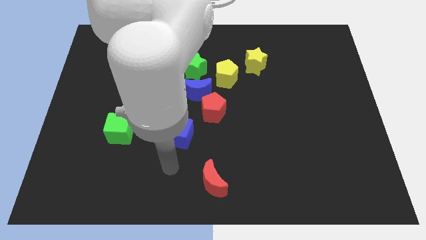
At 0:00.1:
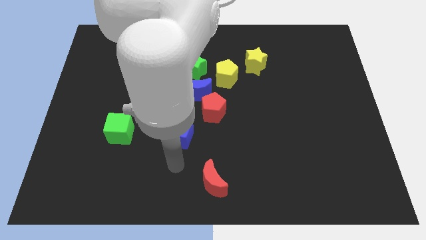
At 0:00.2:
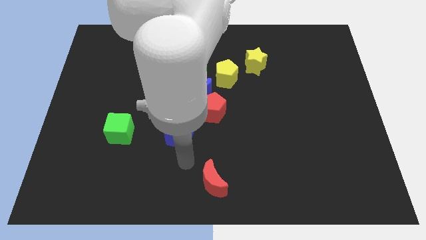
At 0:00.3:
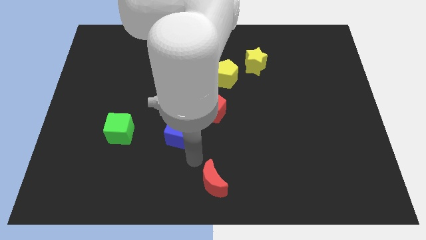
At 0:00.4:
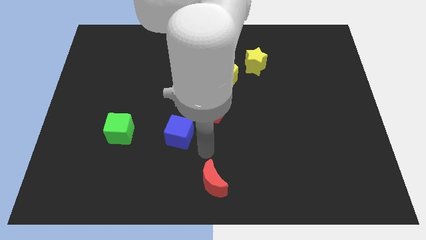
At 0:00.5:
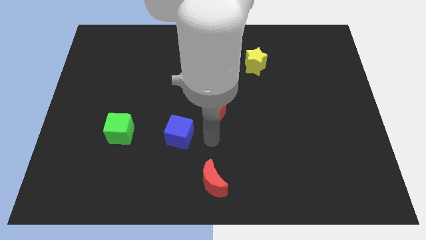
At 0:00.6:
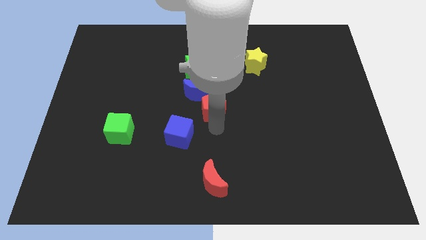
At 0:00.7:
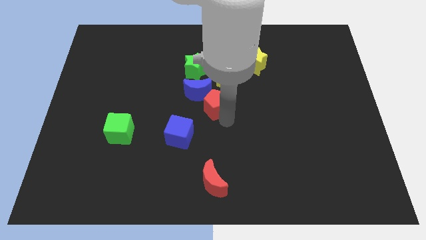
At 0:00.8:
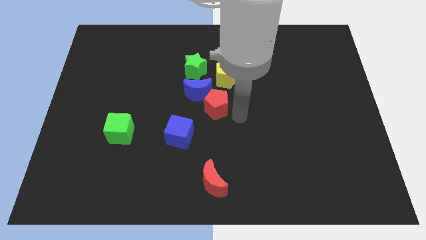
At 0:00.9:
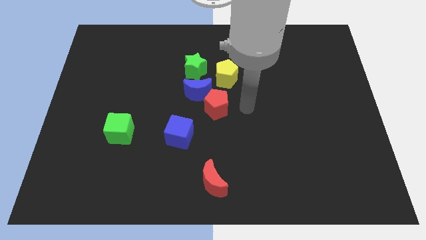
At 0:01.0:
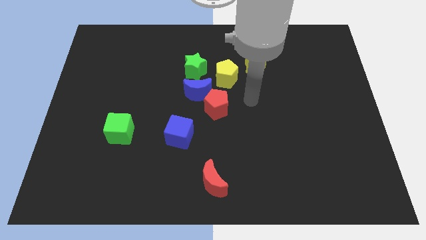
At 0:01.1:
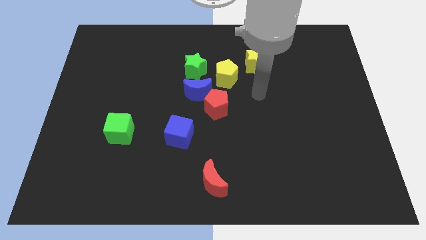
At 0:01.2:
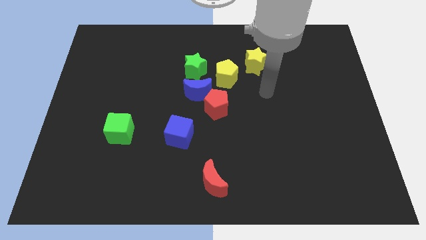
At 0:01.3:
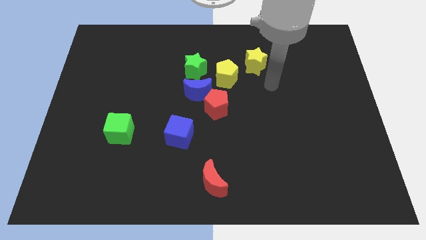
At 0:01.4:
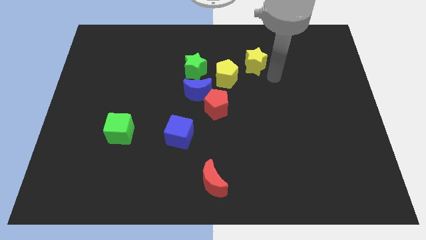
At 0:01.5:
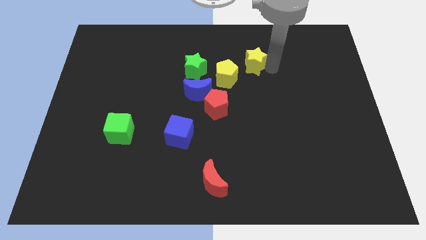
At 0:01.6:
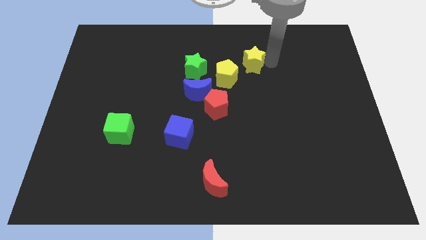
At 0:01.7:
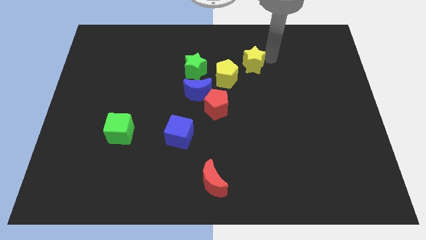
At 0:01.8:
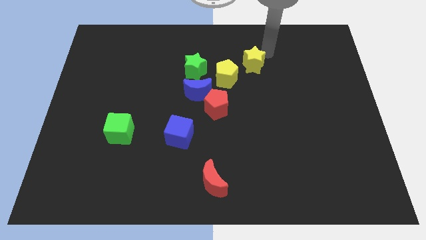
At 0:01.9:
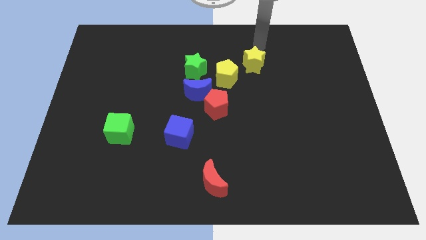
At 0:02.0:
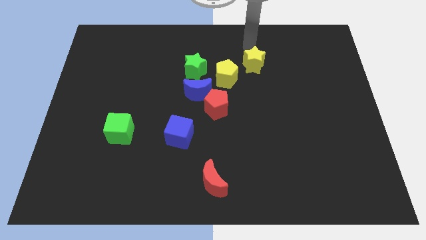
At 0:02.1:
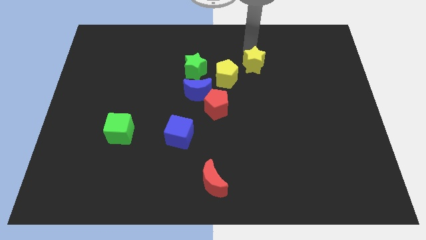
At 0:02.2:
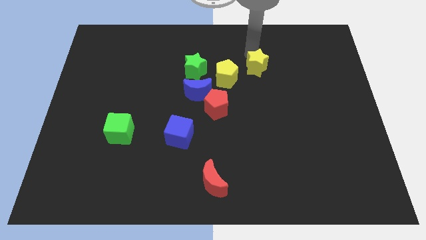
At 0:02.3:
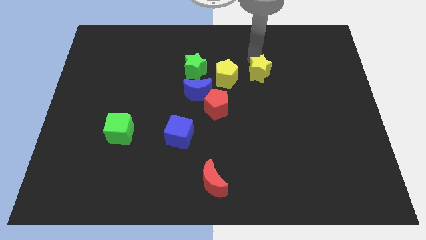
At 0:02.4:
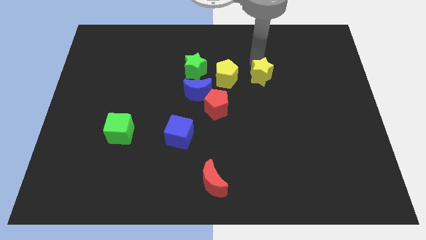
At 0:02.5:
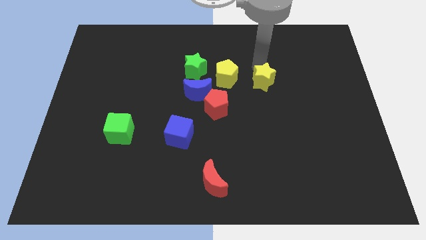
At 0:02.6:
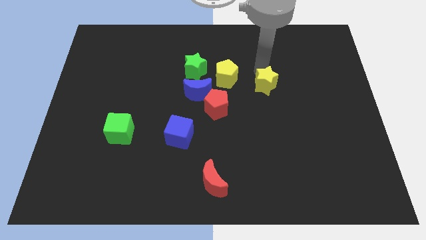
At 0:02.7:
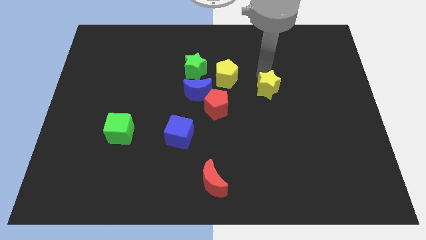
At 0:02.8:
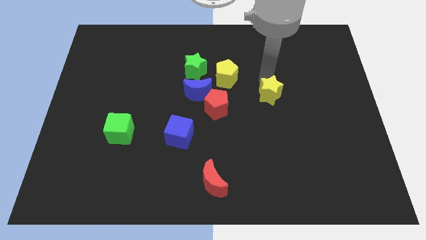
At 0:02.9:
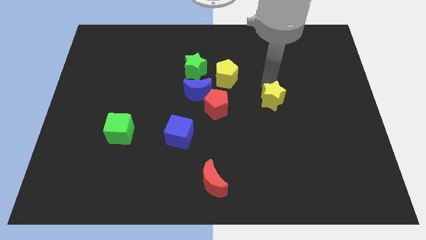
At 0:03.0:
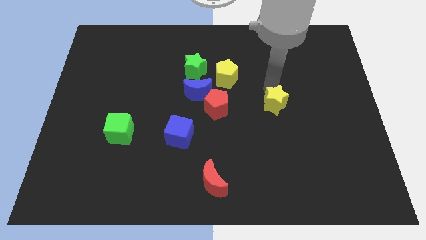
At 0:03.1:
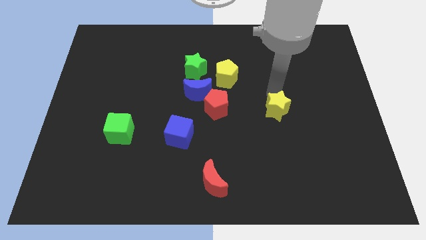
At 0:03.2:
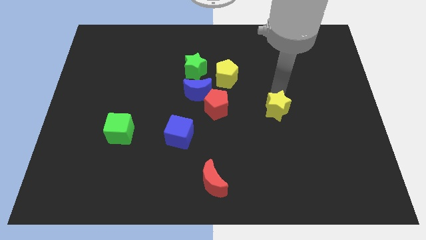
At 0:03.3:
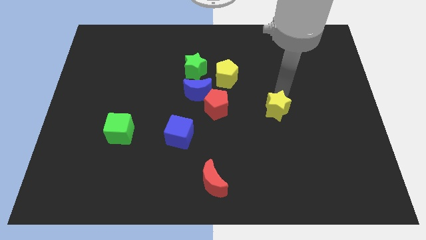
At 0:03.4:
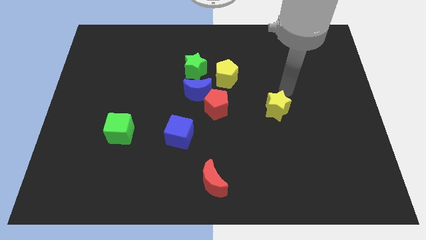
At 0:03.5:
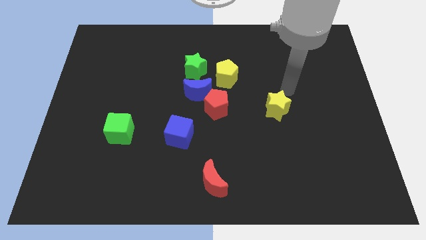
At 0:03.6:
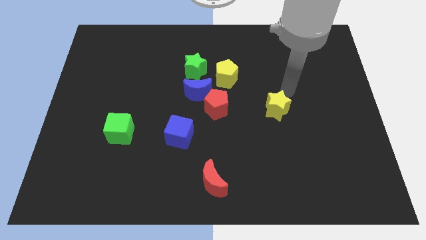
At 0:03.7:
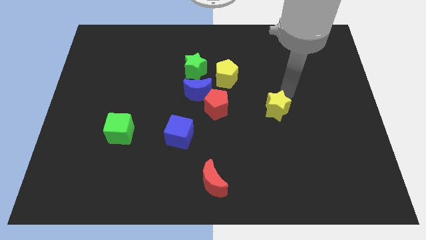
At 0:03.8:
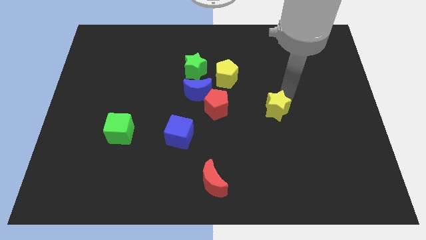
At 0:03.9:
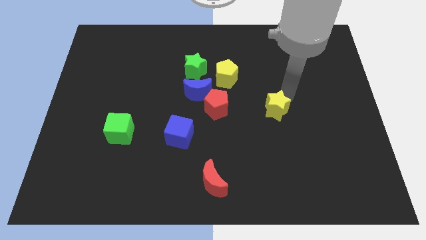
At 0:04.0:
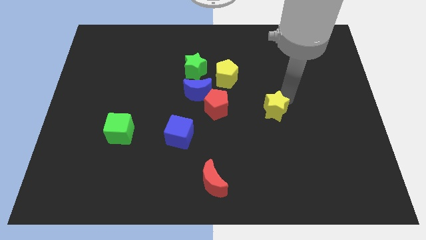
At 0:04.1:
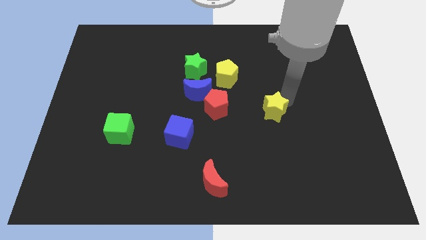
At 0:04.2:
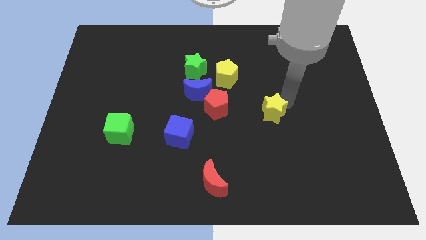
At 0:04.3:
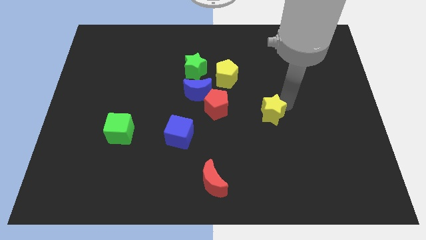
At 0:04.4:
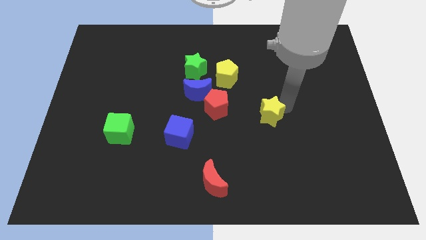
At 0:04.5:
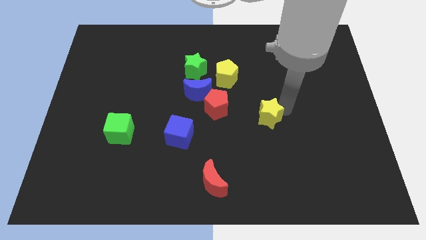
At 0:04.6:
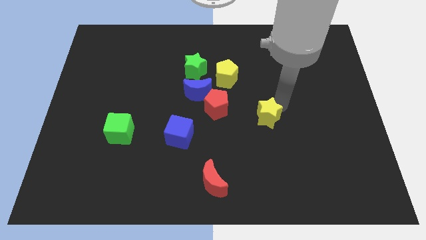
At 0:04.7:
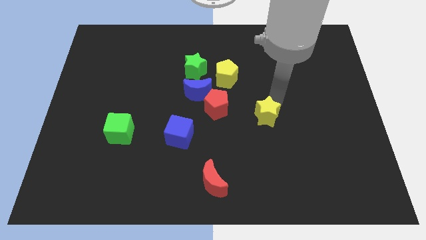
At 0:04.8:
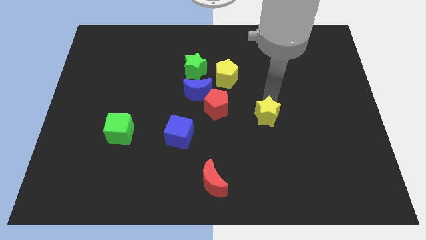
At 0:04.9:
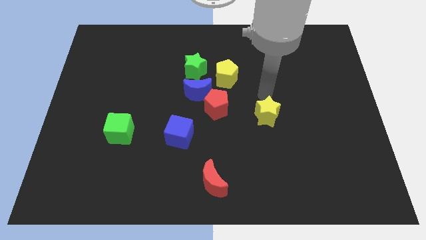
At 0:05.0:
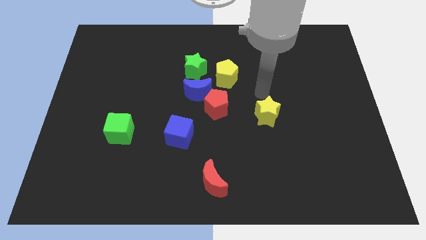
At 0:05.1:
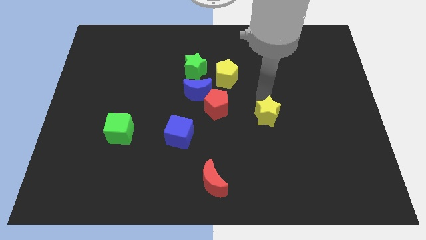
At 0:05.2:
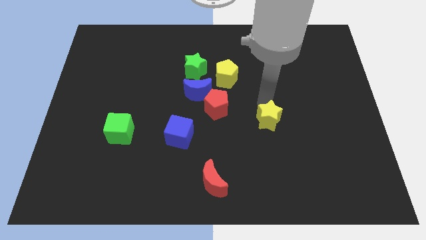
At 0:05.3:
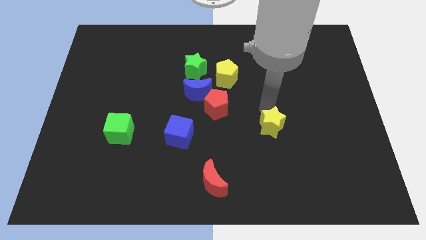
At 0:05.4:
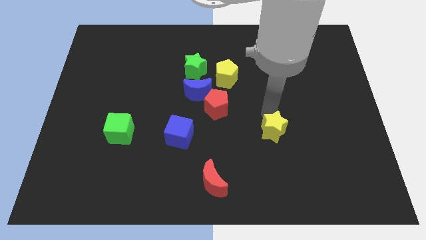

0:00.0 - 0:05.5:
push the yellow star down

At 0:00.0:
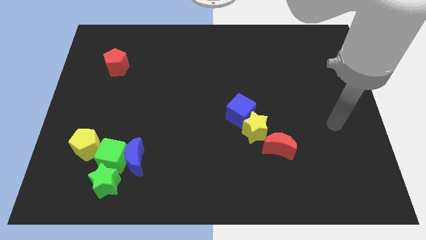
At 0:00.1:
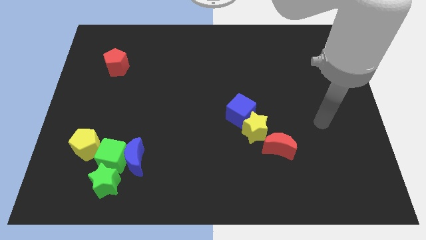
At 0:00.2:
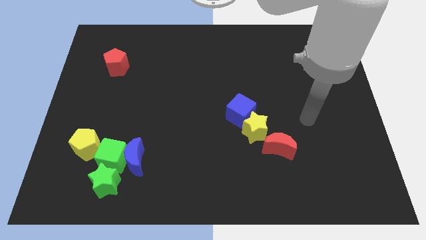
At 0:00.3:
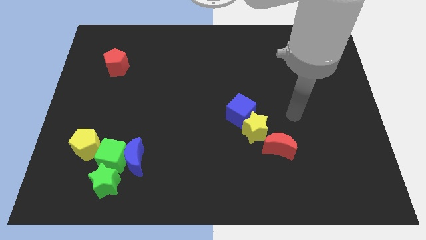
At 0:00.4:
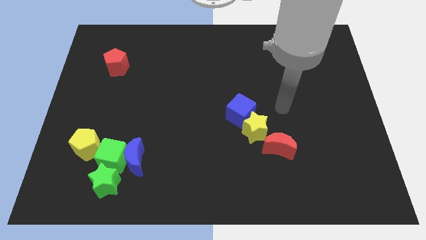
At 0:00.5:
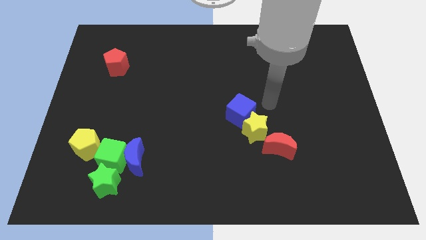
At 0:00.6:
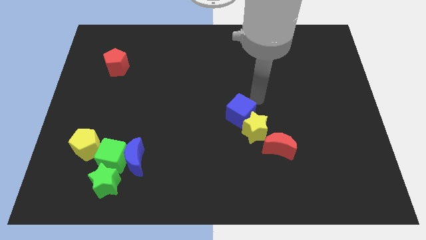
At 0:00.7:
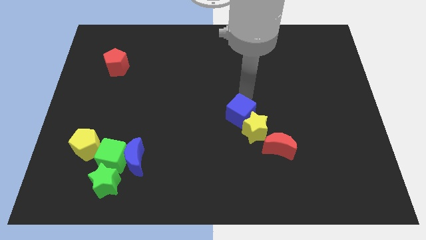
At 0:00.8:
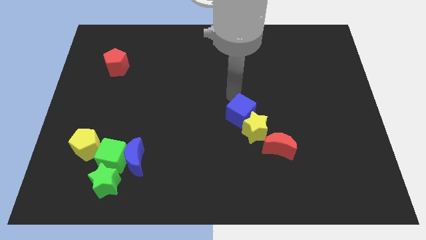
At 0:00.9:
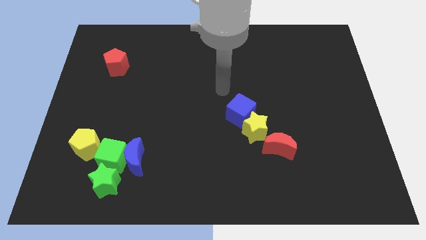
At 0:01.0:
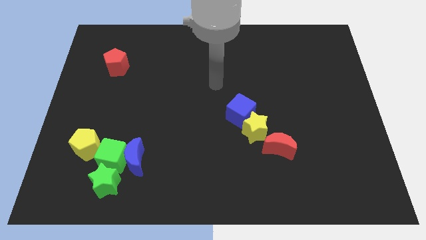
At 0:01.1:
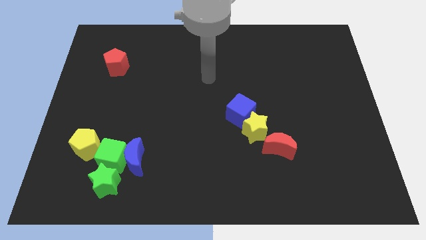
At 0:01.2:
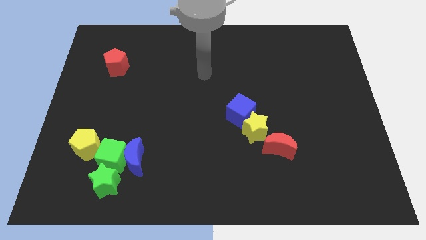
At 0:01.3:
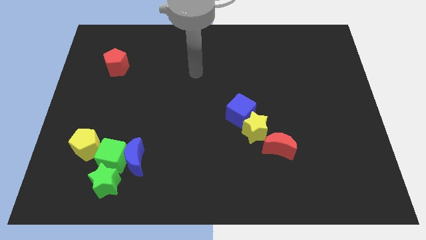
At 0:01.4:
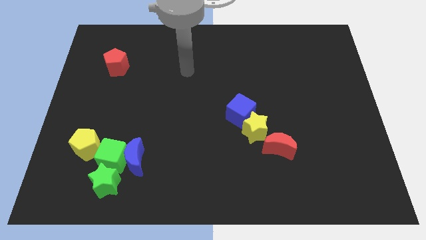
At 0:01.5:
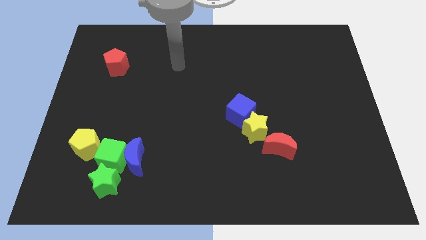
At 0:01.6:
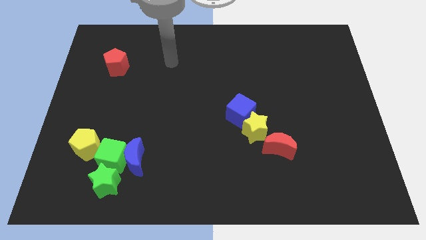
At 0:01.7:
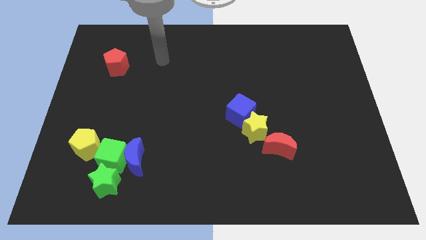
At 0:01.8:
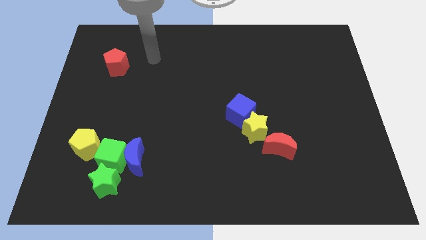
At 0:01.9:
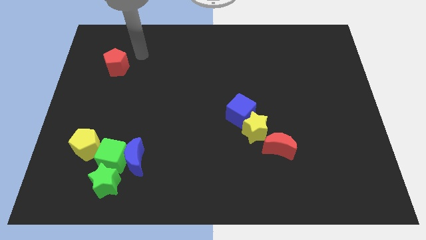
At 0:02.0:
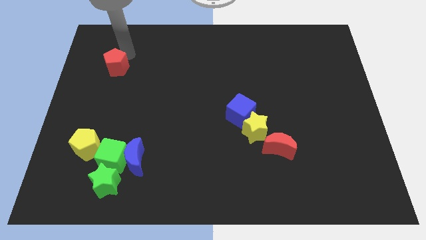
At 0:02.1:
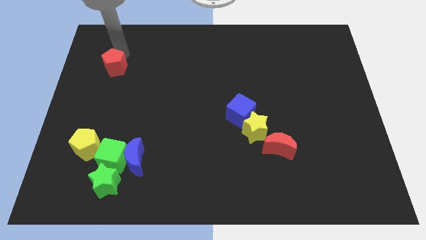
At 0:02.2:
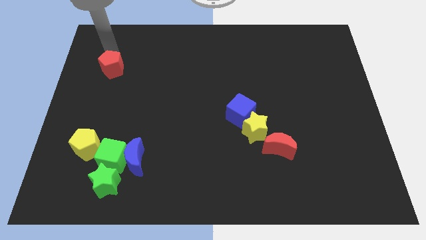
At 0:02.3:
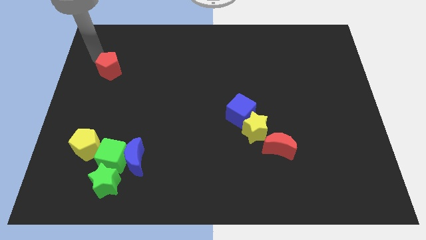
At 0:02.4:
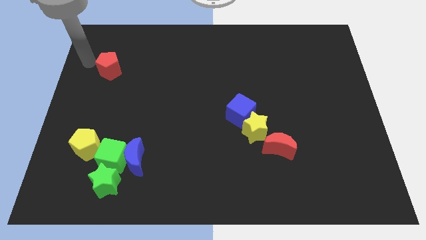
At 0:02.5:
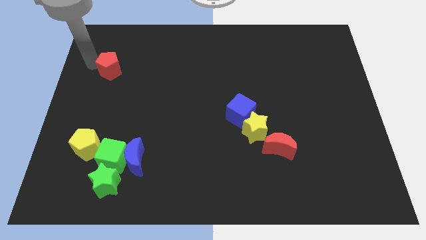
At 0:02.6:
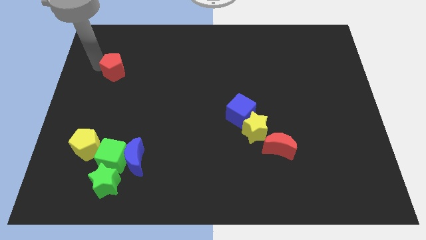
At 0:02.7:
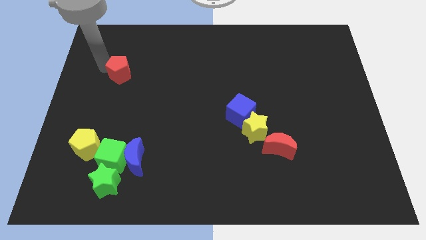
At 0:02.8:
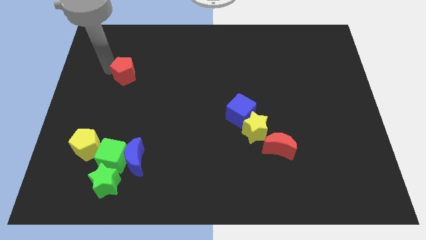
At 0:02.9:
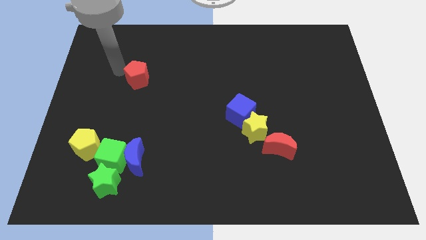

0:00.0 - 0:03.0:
slightly move the red pentagon down and right
